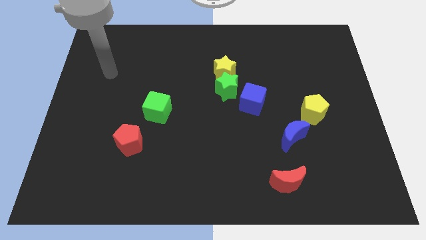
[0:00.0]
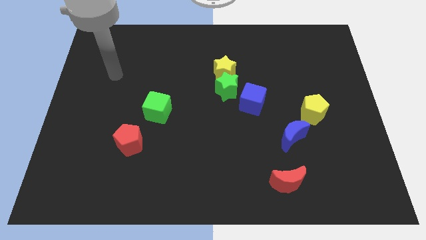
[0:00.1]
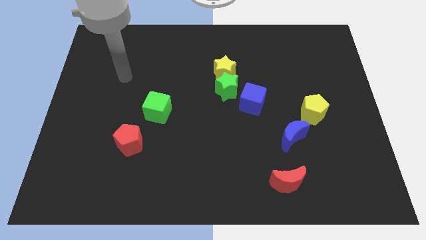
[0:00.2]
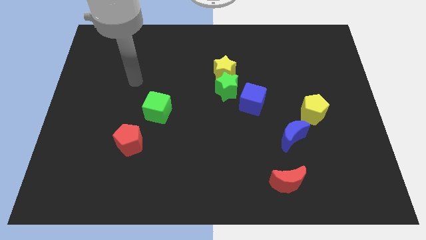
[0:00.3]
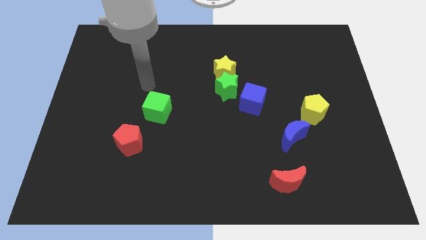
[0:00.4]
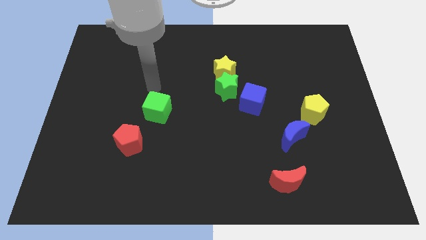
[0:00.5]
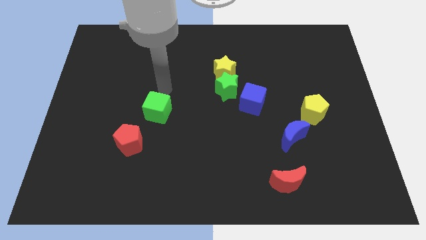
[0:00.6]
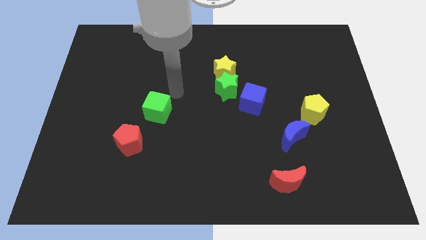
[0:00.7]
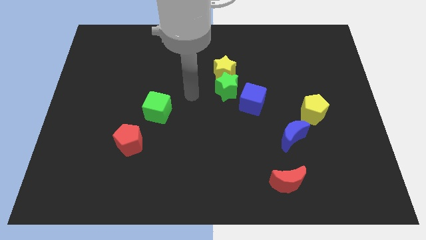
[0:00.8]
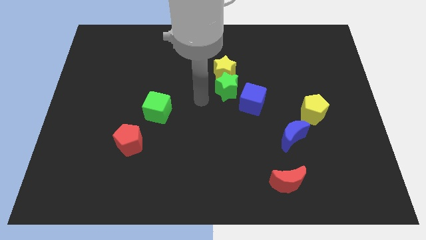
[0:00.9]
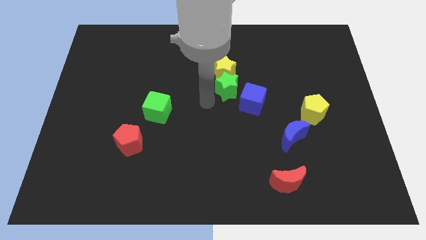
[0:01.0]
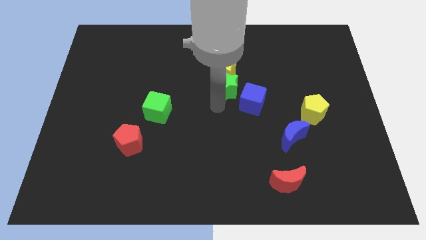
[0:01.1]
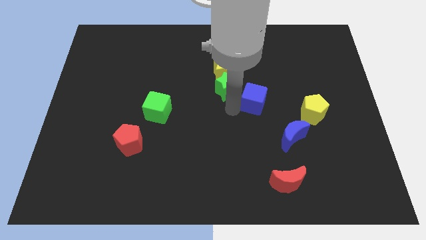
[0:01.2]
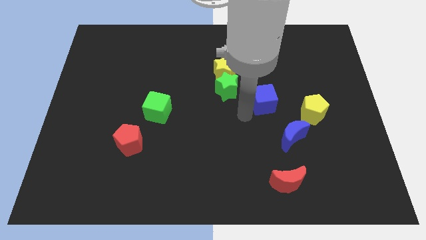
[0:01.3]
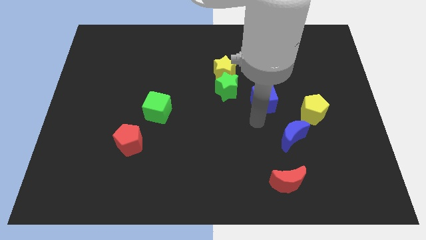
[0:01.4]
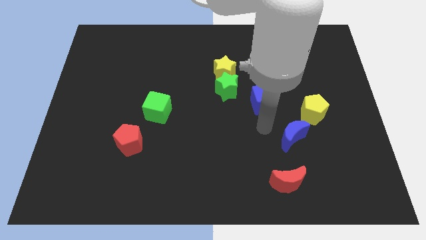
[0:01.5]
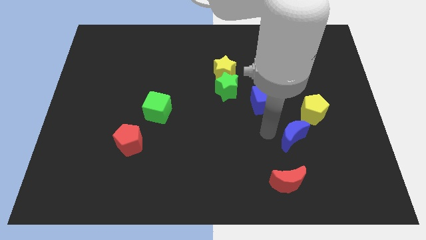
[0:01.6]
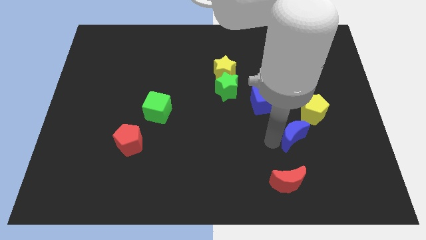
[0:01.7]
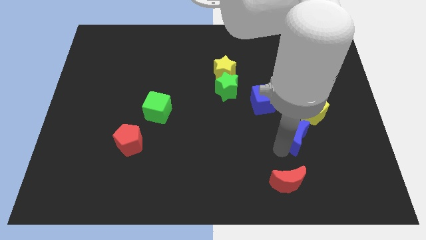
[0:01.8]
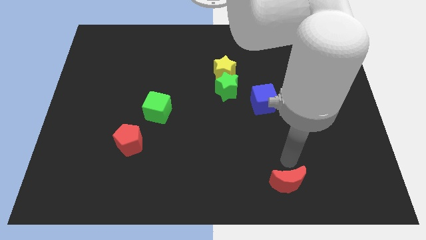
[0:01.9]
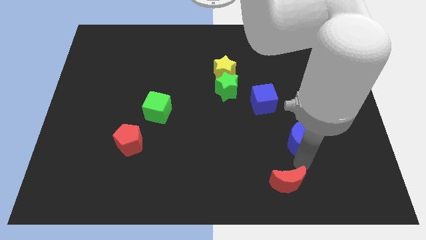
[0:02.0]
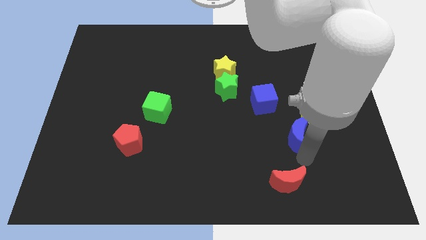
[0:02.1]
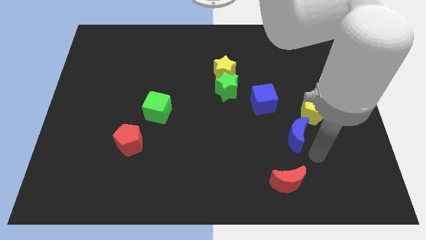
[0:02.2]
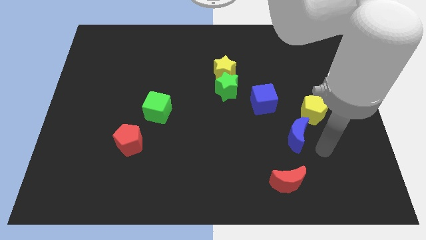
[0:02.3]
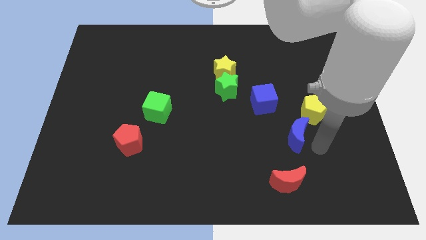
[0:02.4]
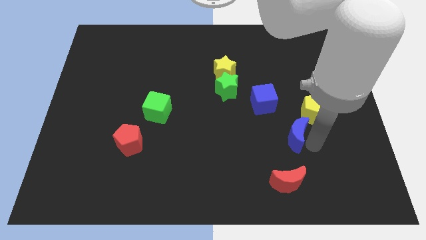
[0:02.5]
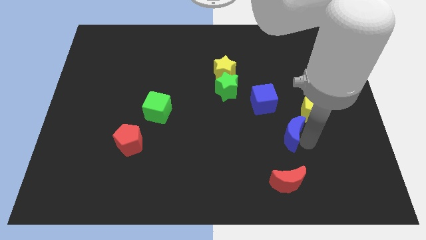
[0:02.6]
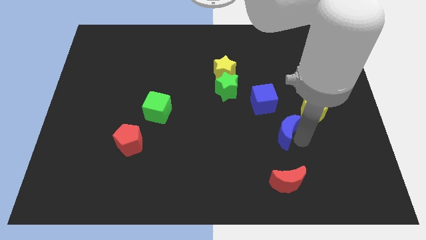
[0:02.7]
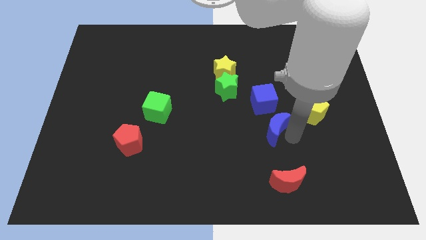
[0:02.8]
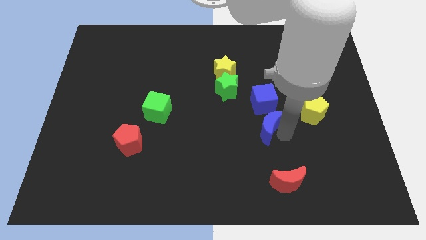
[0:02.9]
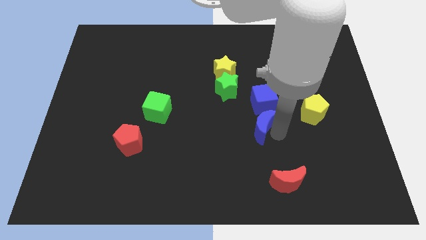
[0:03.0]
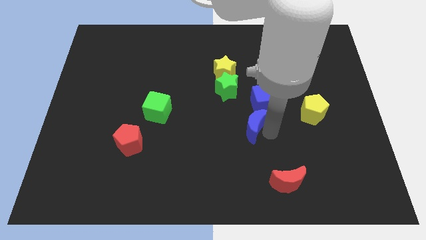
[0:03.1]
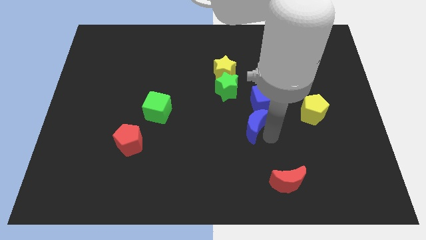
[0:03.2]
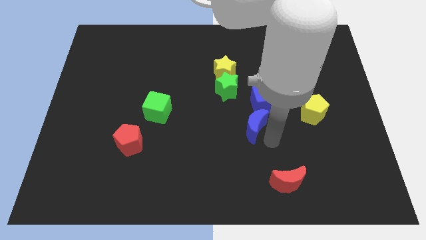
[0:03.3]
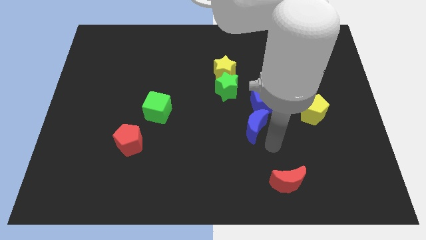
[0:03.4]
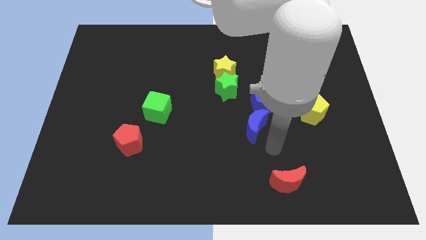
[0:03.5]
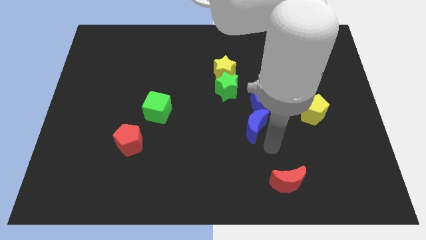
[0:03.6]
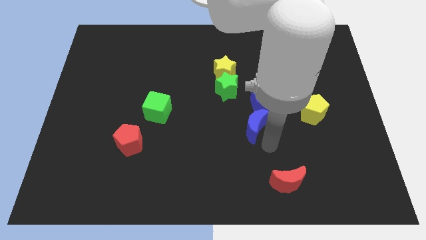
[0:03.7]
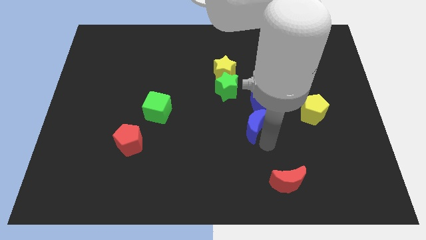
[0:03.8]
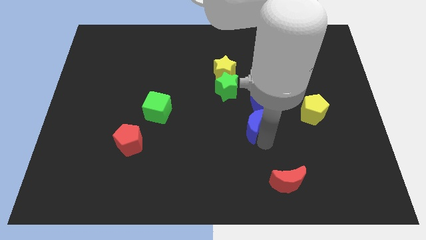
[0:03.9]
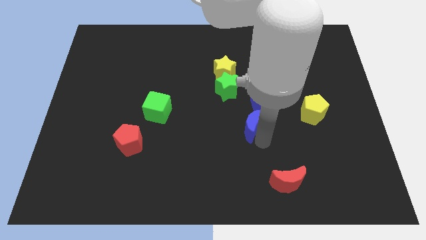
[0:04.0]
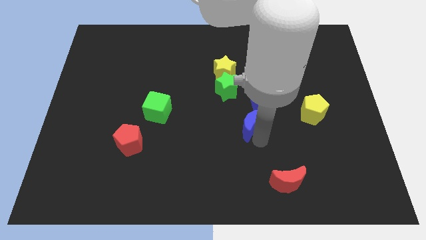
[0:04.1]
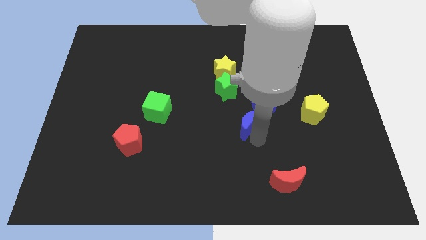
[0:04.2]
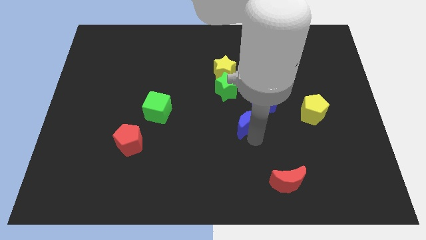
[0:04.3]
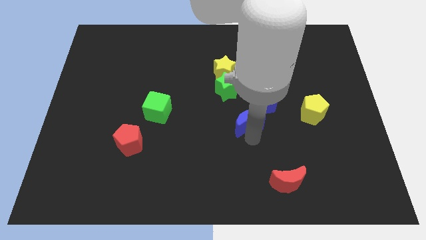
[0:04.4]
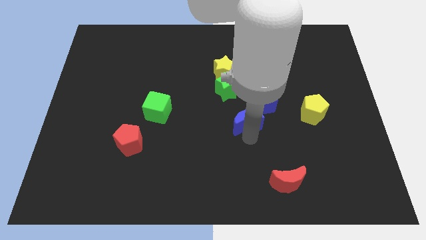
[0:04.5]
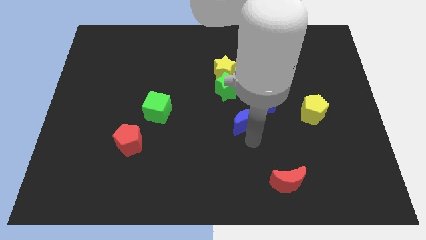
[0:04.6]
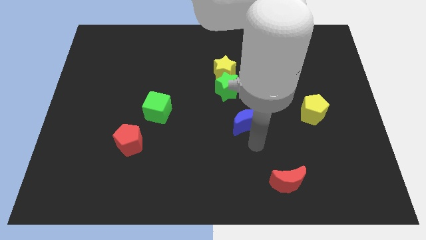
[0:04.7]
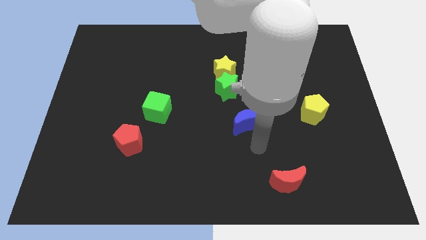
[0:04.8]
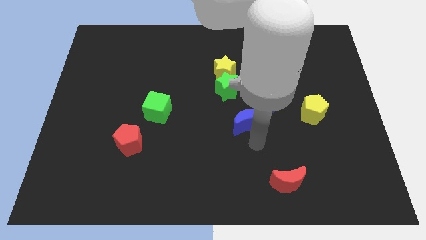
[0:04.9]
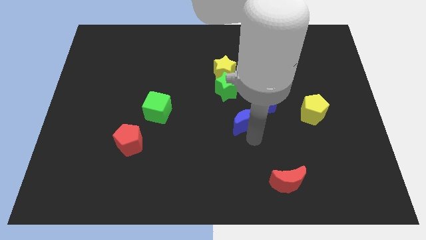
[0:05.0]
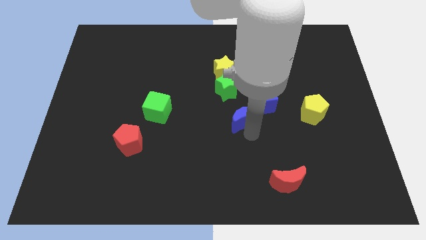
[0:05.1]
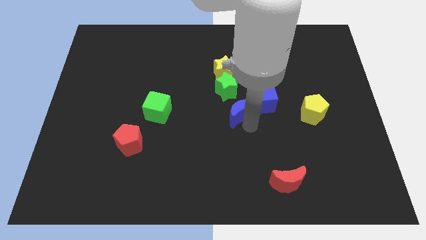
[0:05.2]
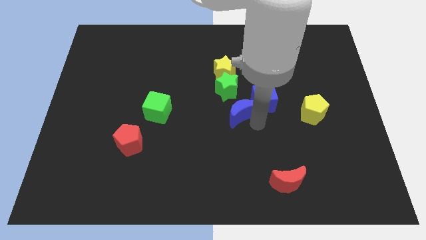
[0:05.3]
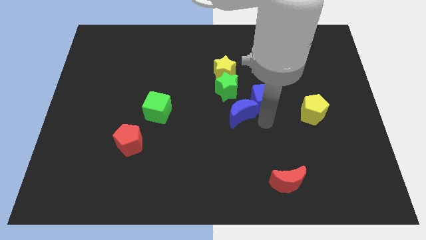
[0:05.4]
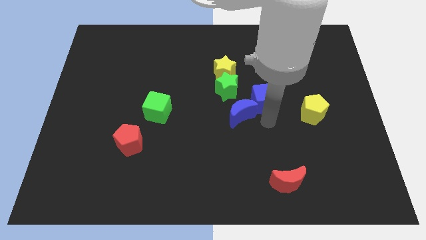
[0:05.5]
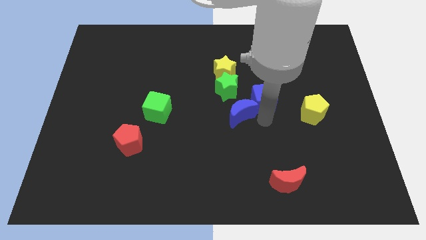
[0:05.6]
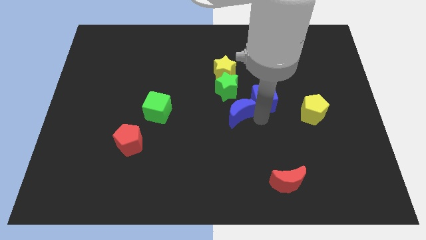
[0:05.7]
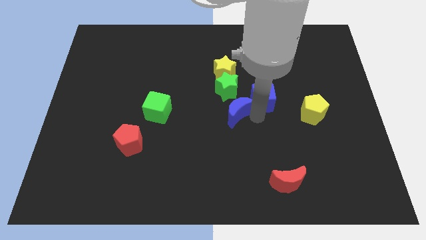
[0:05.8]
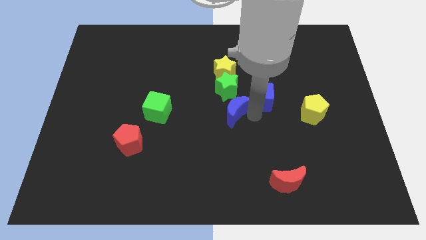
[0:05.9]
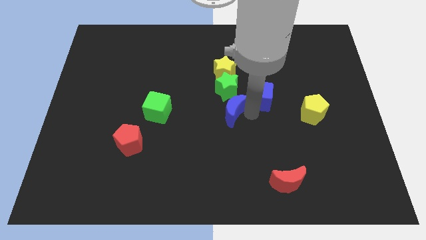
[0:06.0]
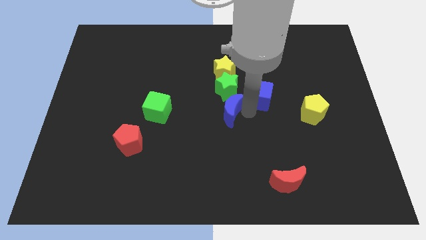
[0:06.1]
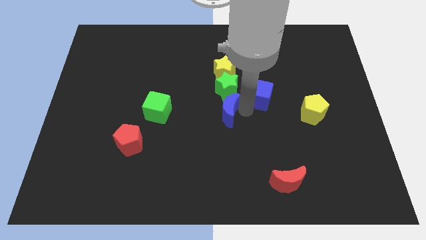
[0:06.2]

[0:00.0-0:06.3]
put the blue moon to the bottom left side of the green star

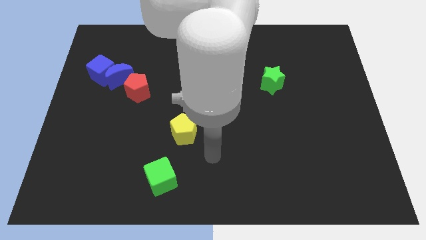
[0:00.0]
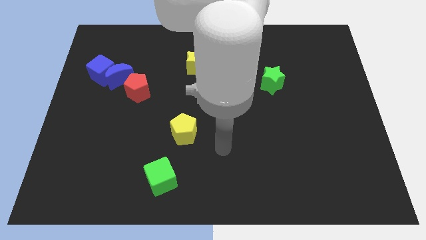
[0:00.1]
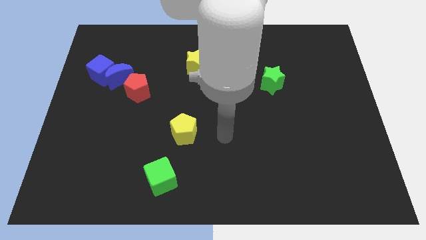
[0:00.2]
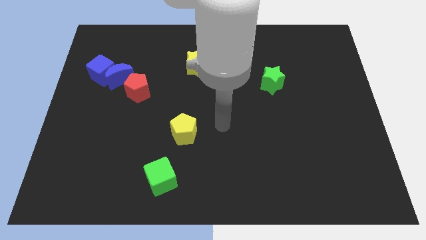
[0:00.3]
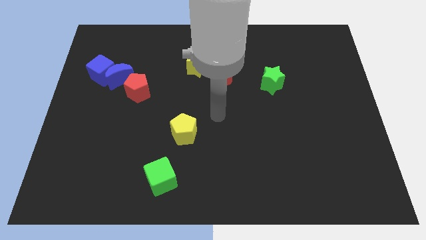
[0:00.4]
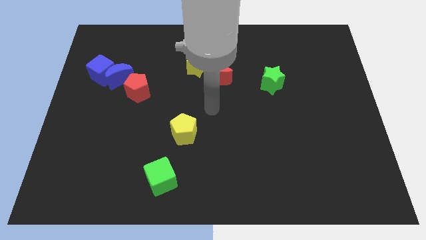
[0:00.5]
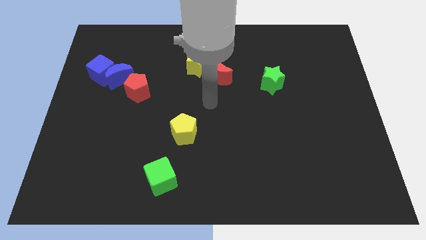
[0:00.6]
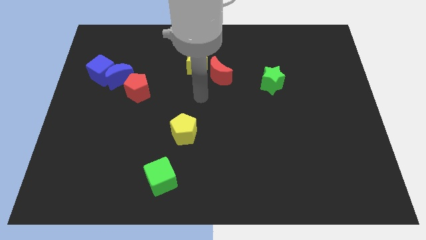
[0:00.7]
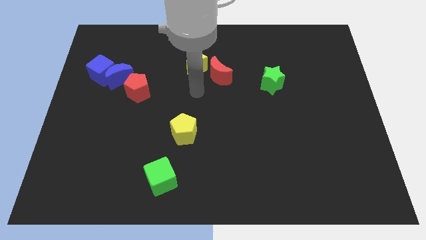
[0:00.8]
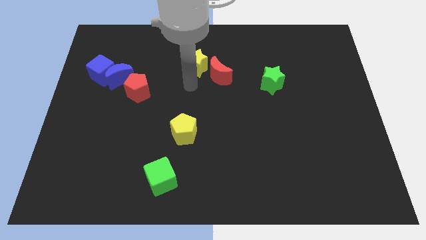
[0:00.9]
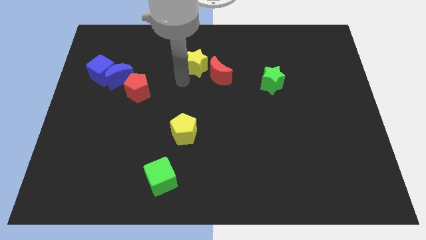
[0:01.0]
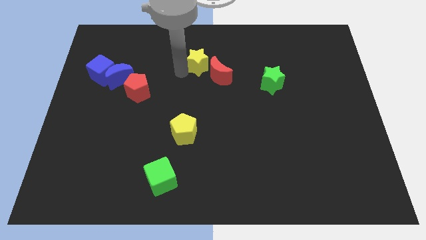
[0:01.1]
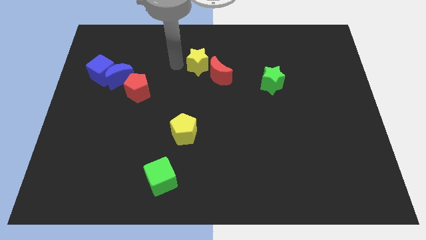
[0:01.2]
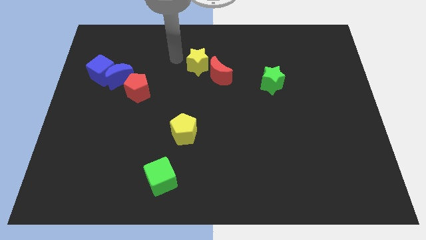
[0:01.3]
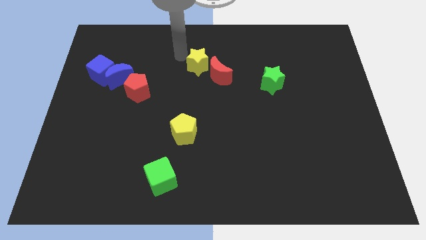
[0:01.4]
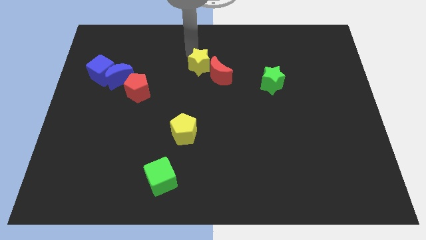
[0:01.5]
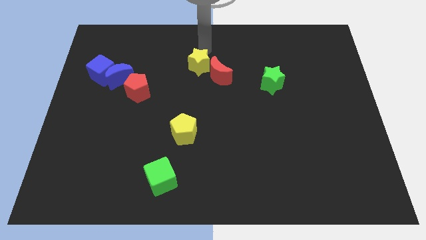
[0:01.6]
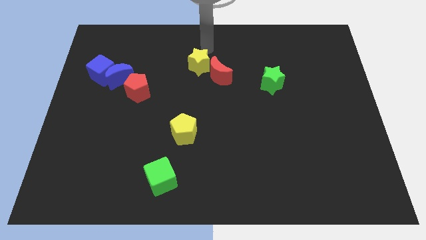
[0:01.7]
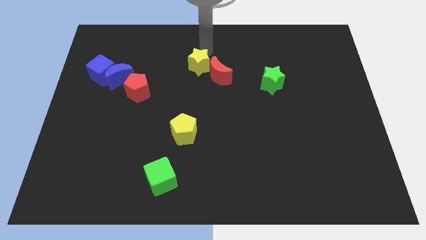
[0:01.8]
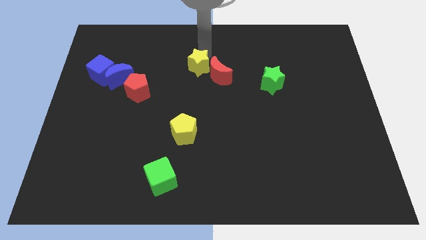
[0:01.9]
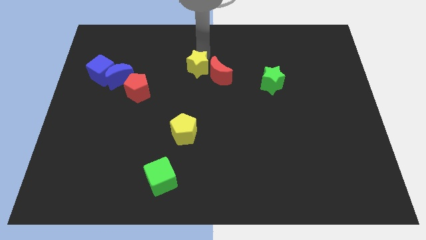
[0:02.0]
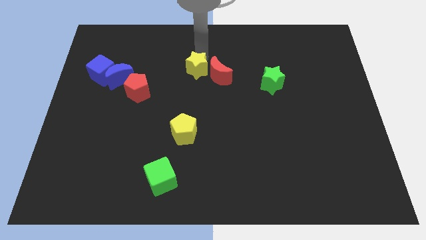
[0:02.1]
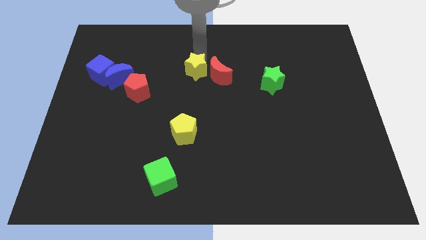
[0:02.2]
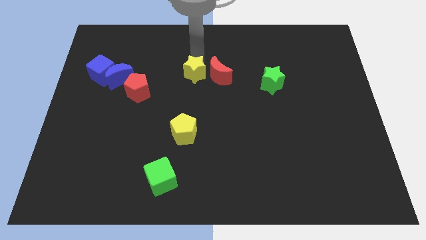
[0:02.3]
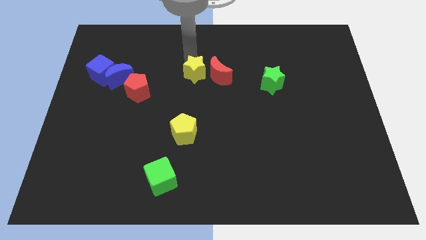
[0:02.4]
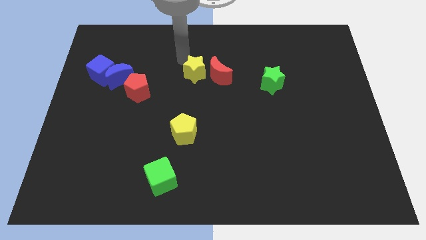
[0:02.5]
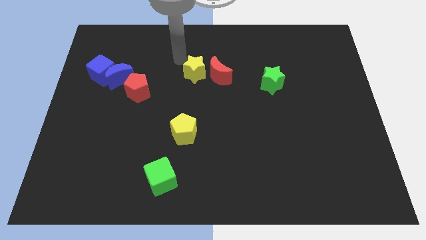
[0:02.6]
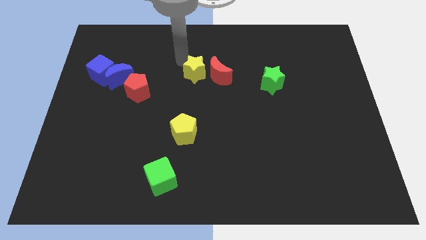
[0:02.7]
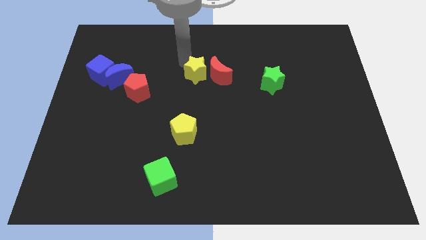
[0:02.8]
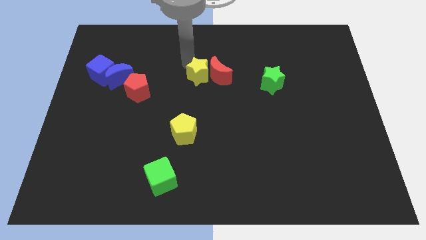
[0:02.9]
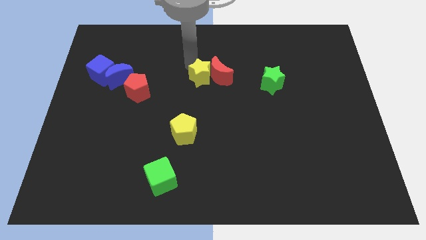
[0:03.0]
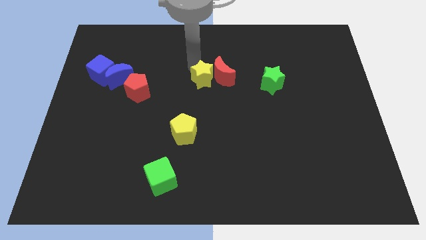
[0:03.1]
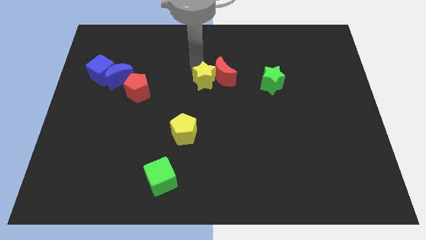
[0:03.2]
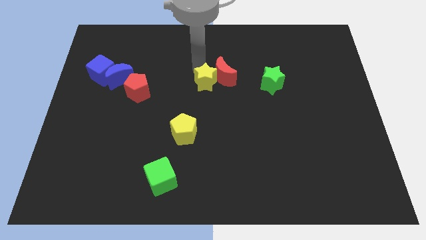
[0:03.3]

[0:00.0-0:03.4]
put the yellow star just left of the green star
